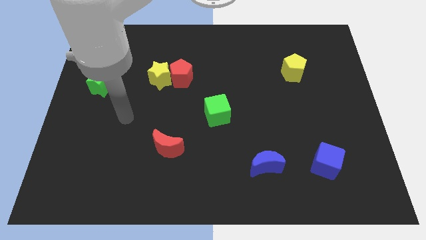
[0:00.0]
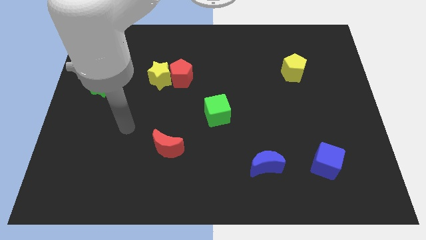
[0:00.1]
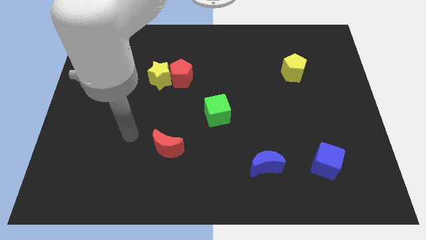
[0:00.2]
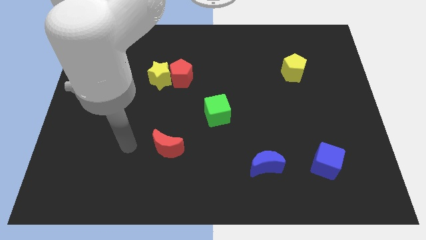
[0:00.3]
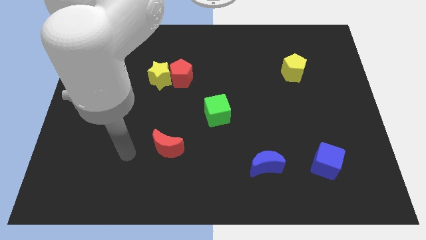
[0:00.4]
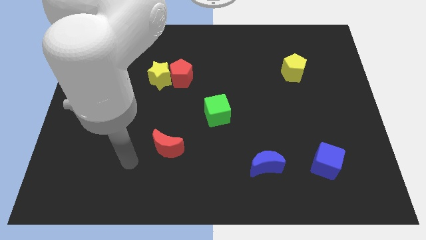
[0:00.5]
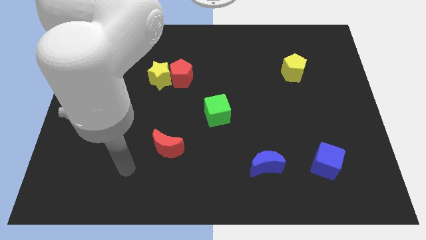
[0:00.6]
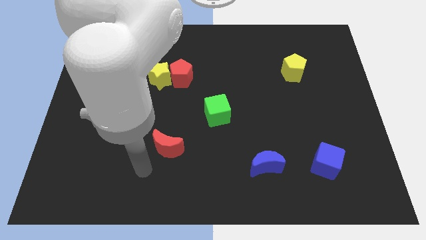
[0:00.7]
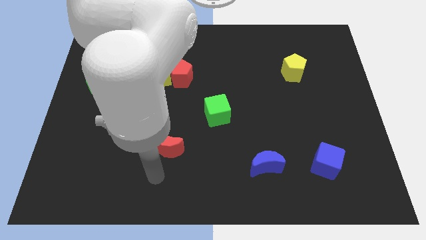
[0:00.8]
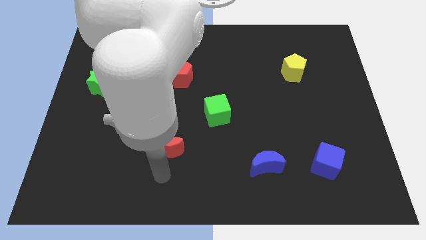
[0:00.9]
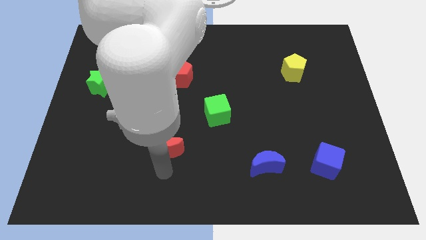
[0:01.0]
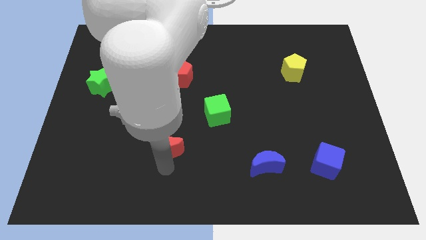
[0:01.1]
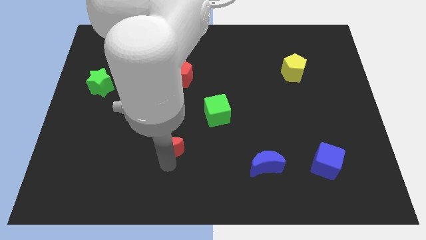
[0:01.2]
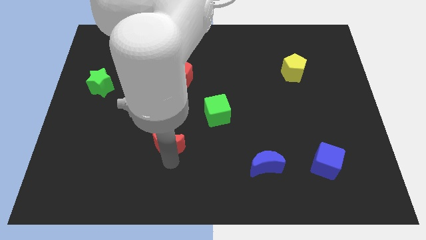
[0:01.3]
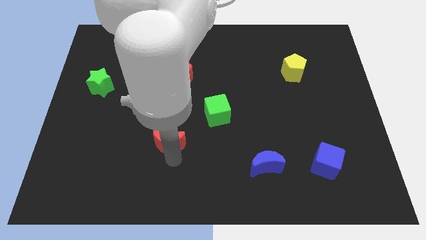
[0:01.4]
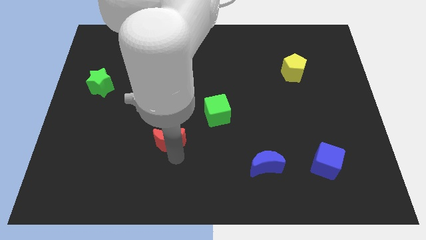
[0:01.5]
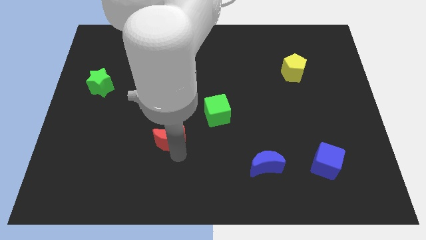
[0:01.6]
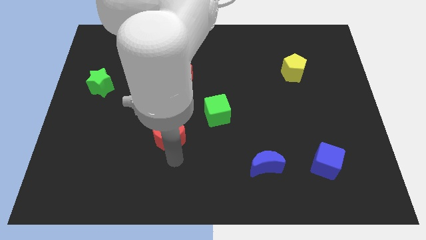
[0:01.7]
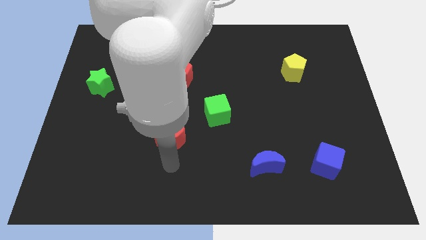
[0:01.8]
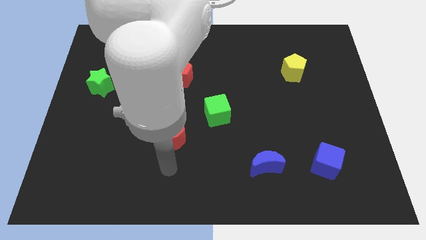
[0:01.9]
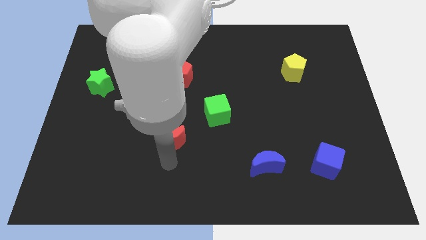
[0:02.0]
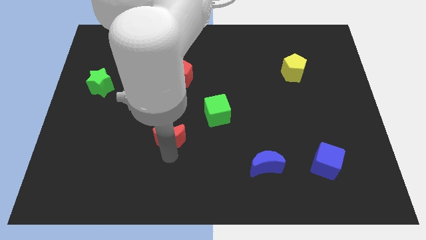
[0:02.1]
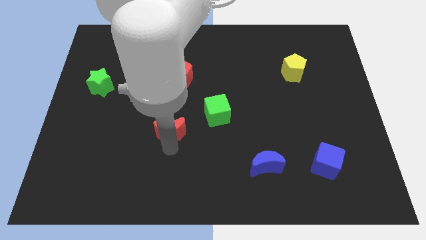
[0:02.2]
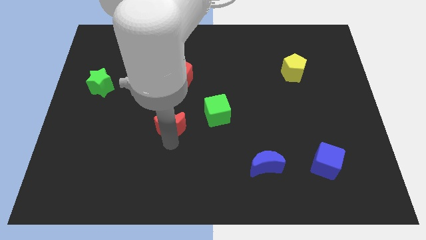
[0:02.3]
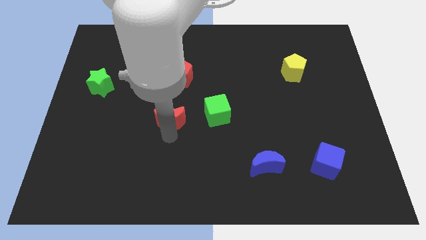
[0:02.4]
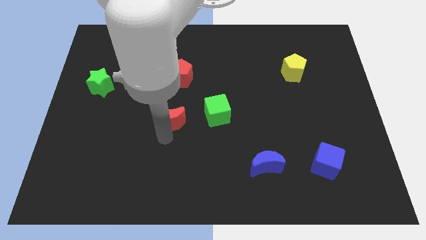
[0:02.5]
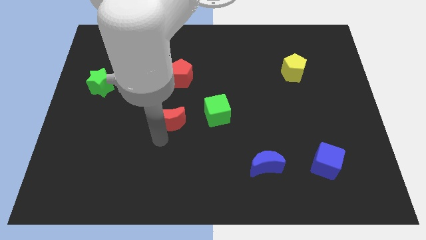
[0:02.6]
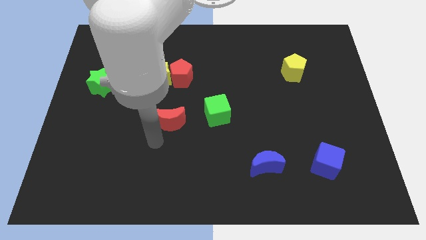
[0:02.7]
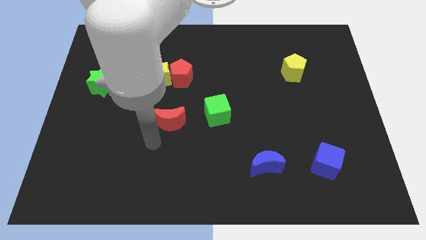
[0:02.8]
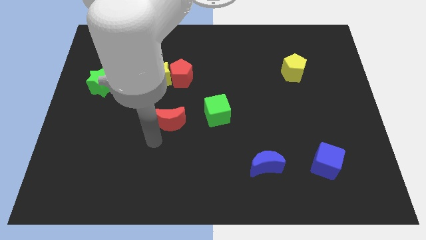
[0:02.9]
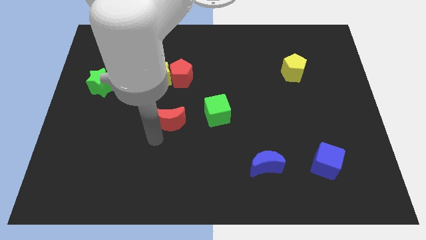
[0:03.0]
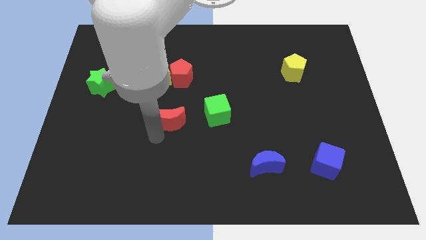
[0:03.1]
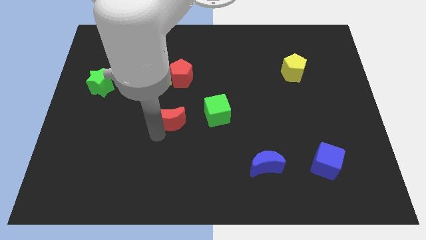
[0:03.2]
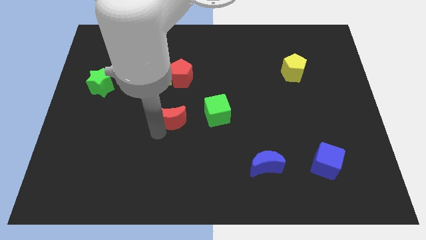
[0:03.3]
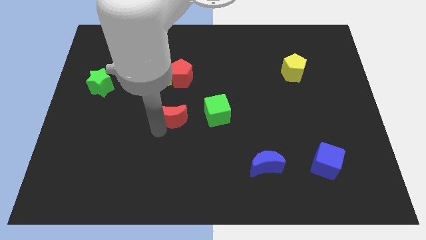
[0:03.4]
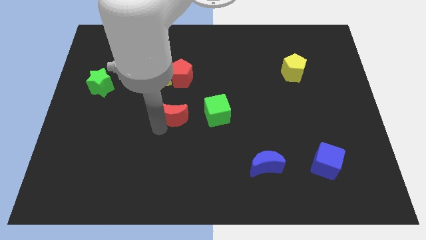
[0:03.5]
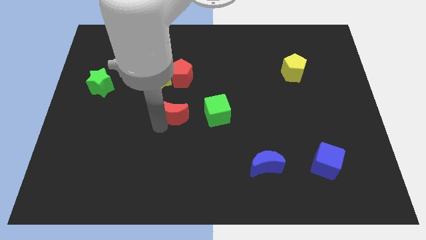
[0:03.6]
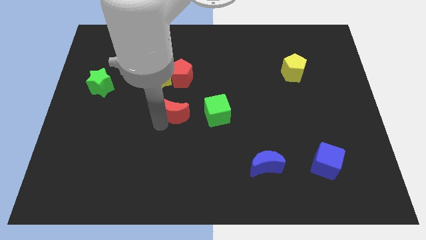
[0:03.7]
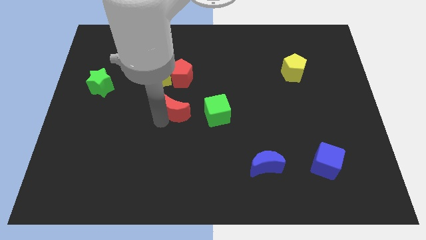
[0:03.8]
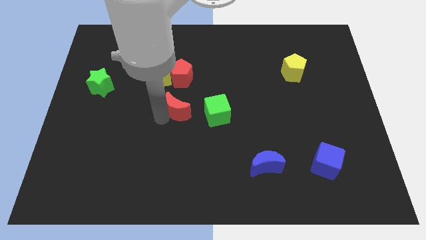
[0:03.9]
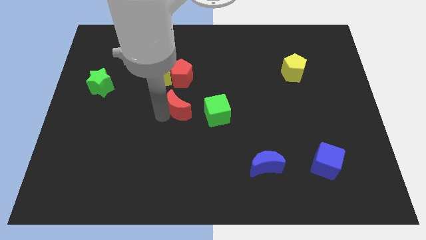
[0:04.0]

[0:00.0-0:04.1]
move the red moon slightly diagonally up and right

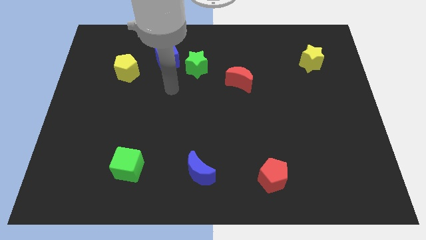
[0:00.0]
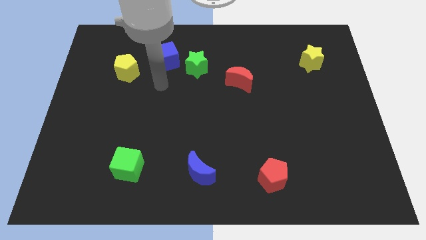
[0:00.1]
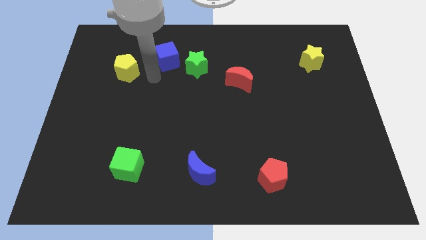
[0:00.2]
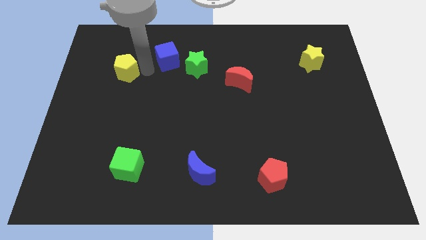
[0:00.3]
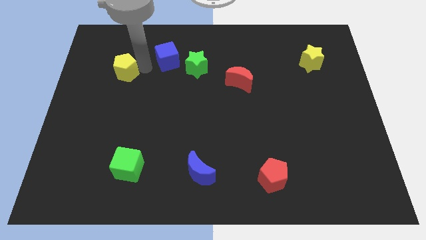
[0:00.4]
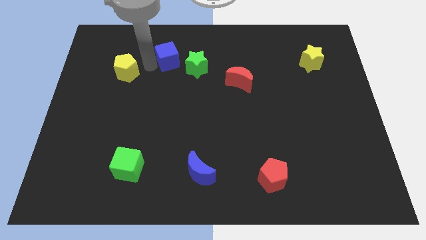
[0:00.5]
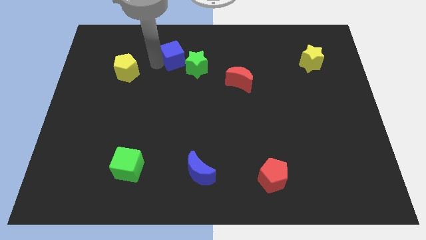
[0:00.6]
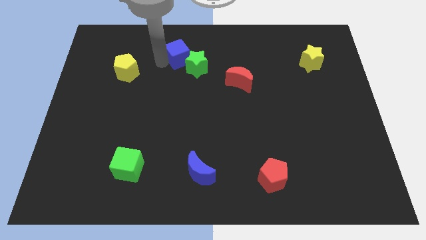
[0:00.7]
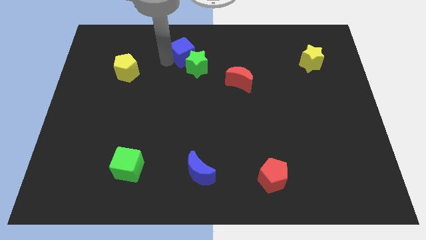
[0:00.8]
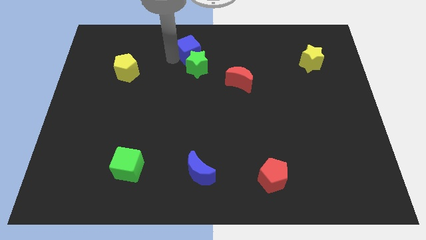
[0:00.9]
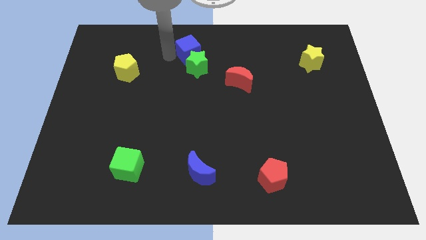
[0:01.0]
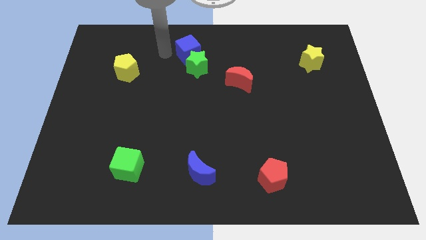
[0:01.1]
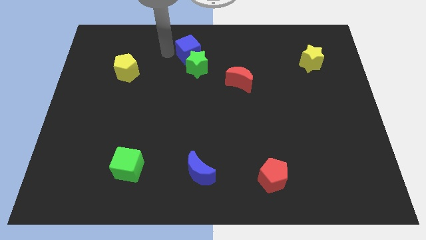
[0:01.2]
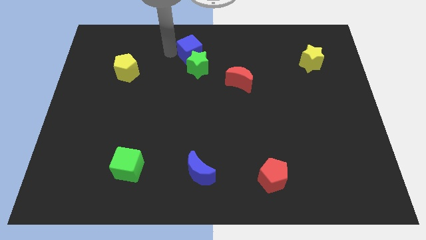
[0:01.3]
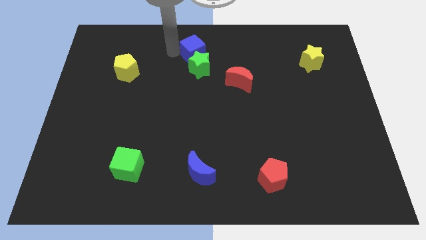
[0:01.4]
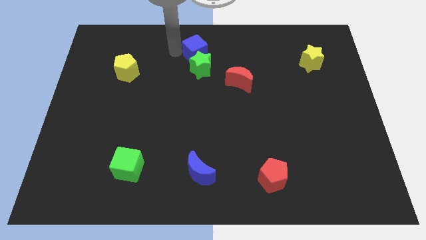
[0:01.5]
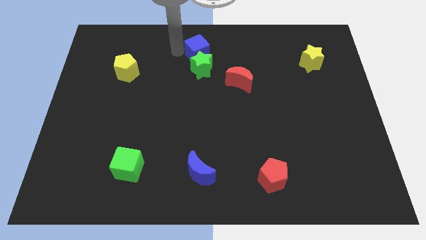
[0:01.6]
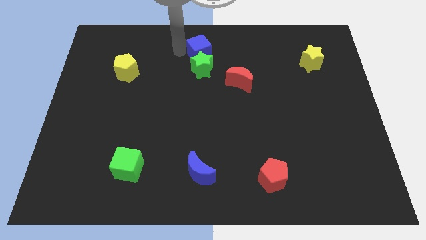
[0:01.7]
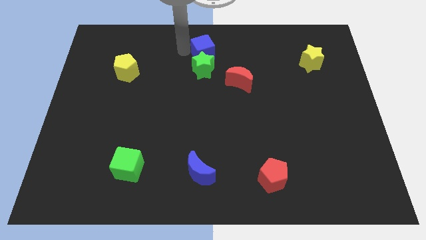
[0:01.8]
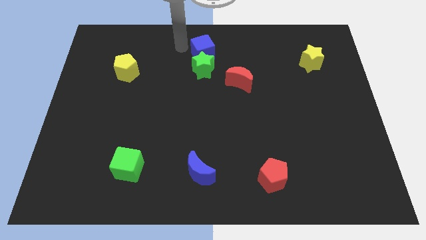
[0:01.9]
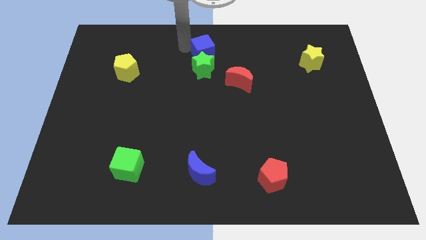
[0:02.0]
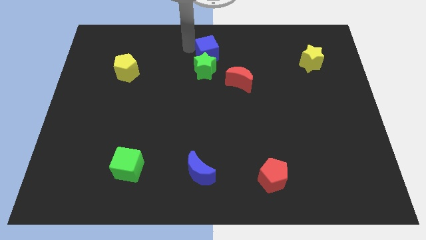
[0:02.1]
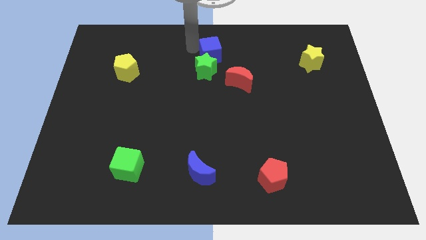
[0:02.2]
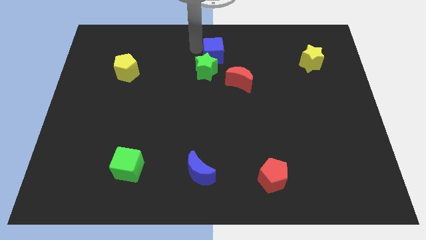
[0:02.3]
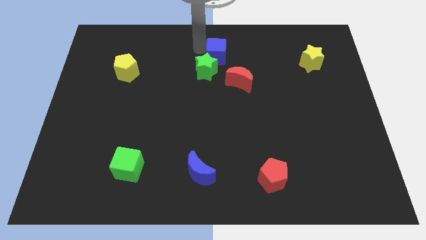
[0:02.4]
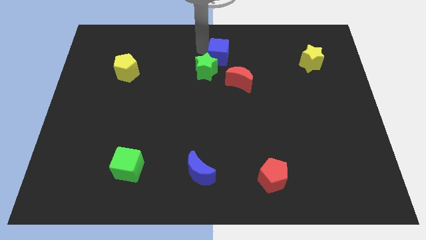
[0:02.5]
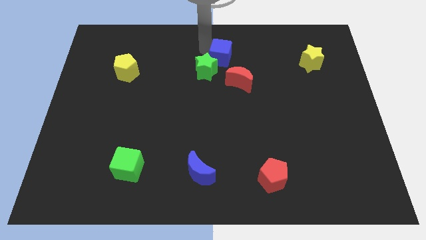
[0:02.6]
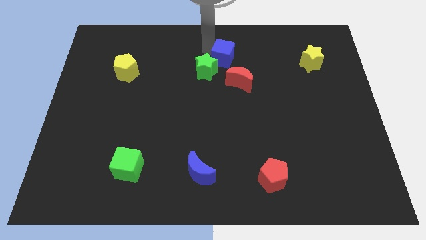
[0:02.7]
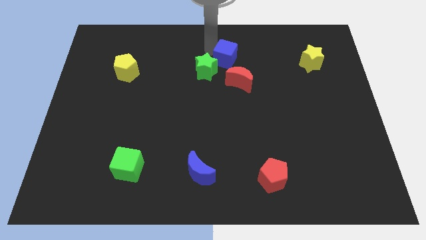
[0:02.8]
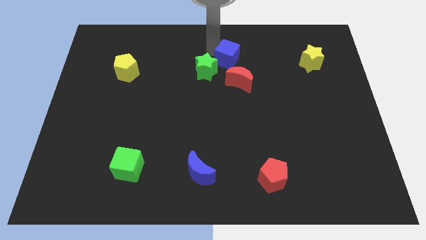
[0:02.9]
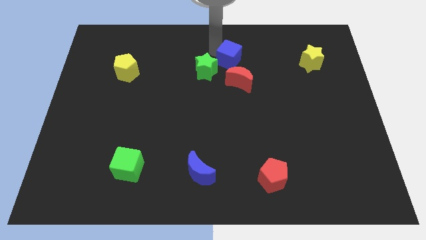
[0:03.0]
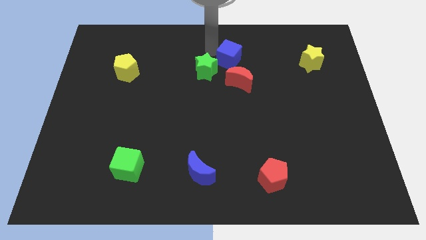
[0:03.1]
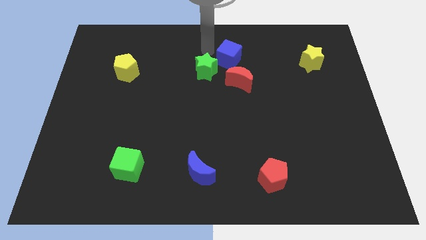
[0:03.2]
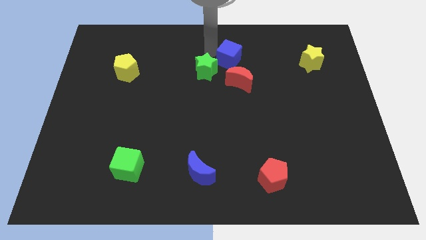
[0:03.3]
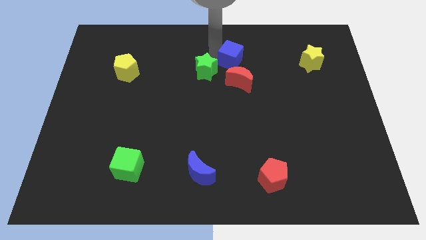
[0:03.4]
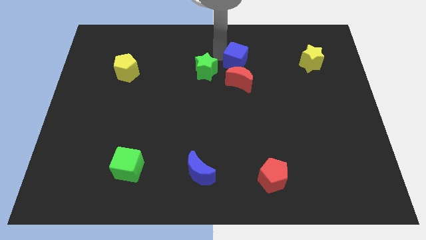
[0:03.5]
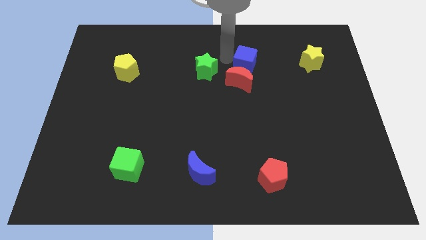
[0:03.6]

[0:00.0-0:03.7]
slide the blue cube to the right

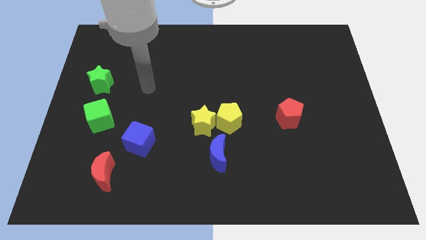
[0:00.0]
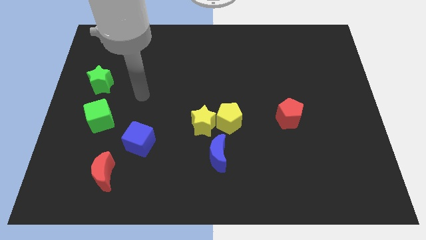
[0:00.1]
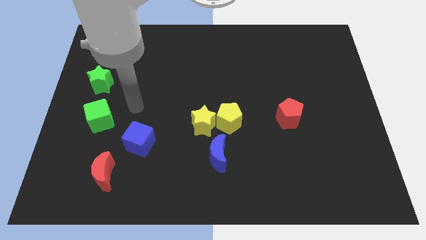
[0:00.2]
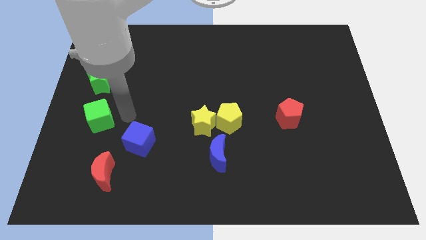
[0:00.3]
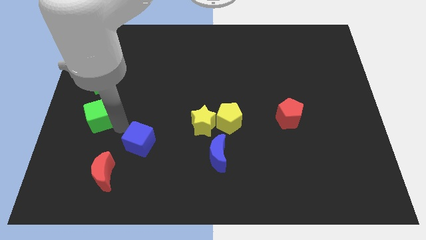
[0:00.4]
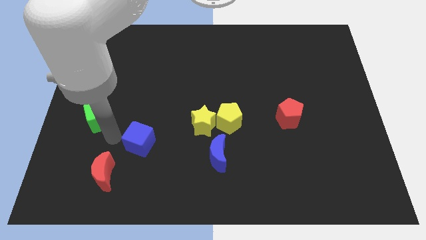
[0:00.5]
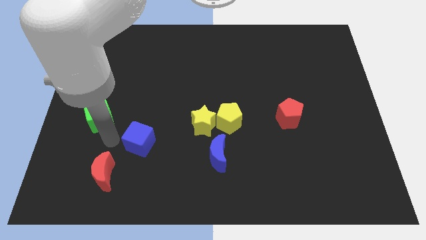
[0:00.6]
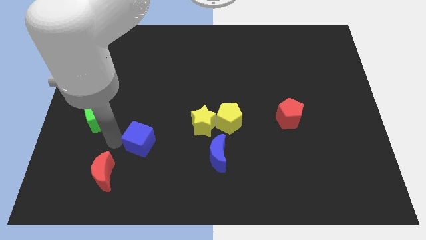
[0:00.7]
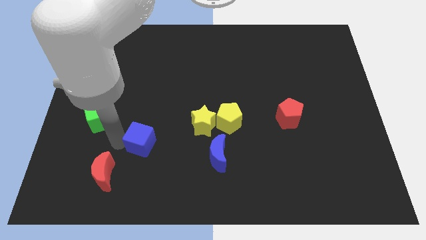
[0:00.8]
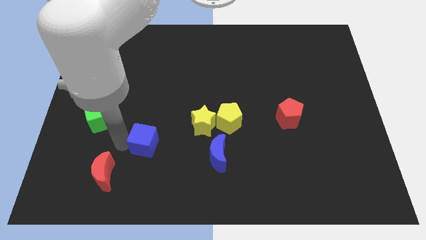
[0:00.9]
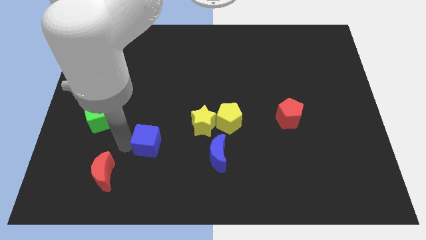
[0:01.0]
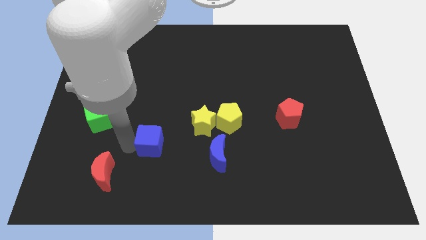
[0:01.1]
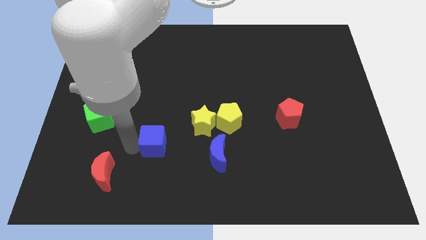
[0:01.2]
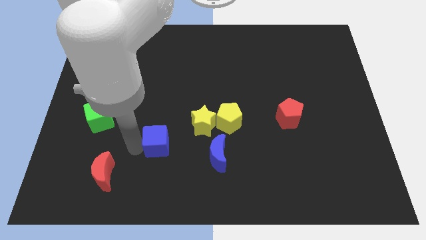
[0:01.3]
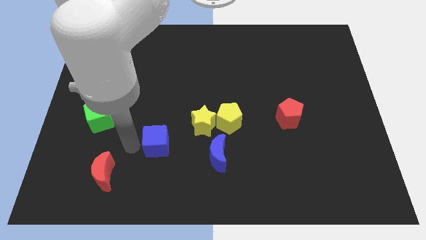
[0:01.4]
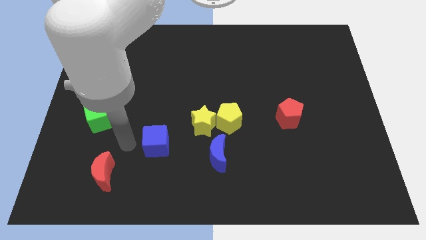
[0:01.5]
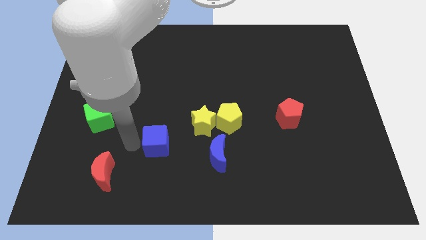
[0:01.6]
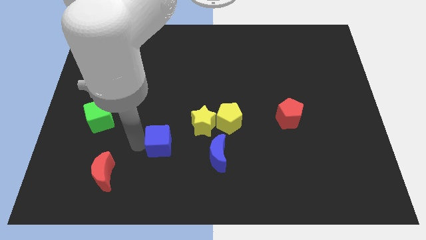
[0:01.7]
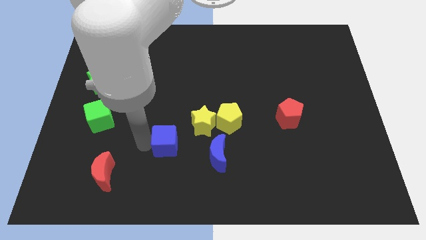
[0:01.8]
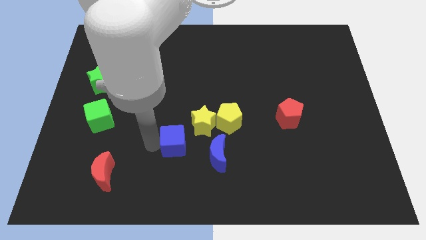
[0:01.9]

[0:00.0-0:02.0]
slightly slide the blue cube to the right
